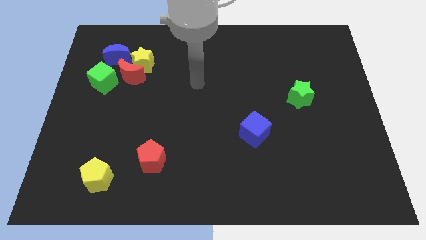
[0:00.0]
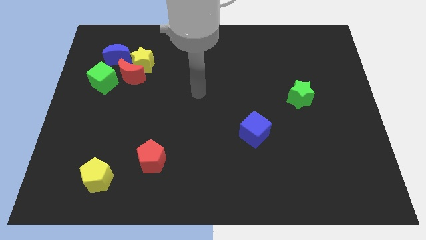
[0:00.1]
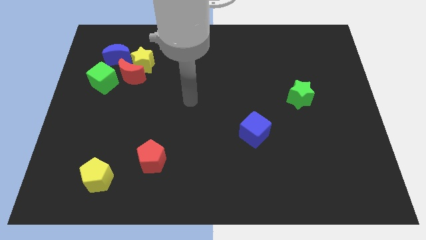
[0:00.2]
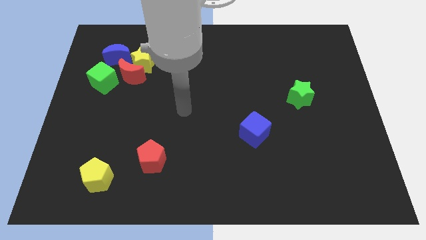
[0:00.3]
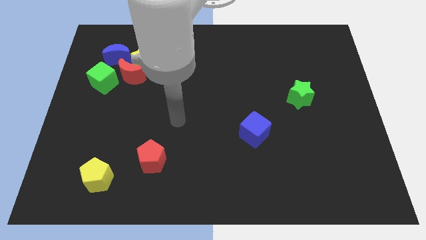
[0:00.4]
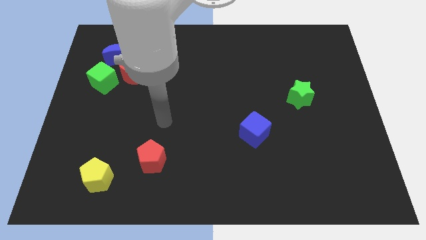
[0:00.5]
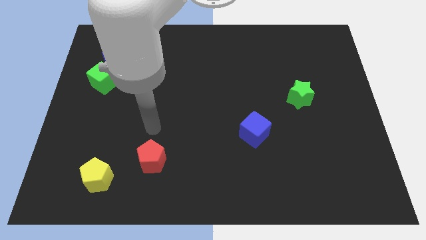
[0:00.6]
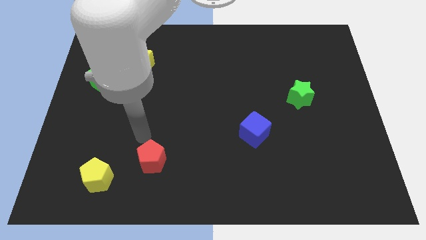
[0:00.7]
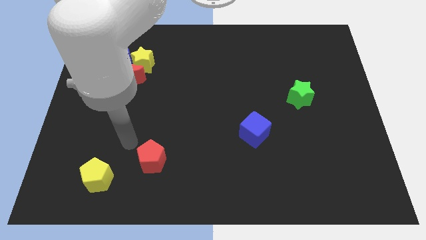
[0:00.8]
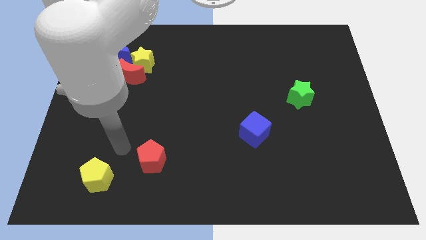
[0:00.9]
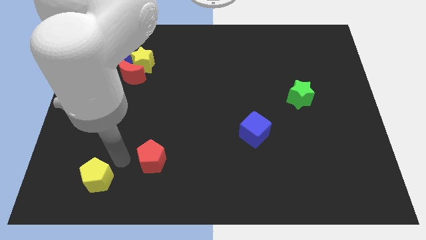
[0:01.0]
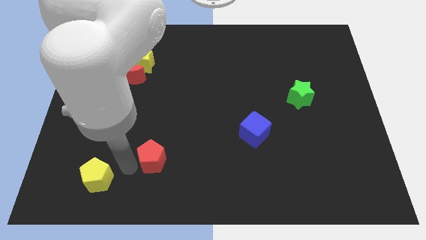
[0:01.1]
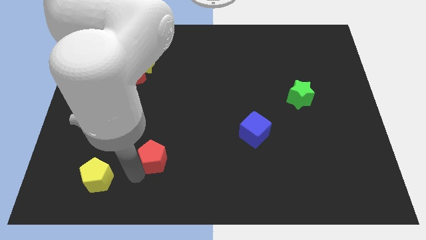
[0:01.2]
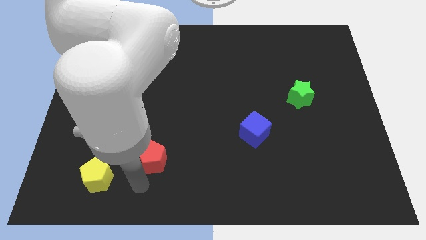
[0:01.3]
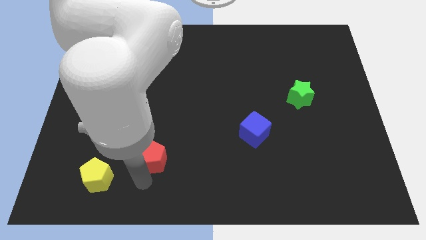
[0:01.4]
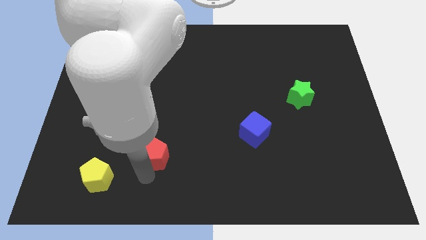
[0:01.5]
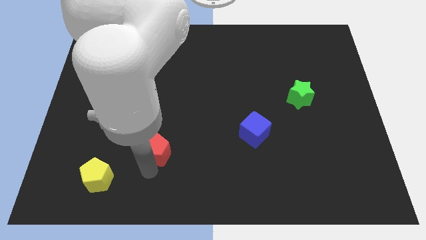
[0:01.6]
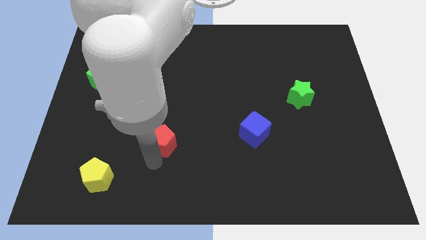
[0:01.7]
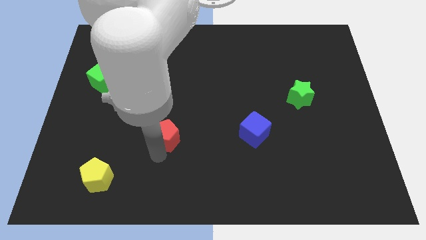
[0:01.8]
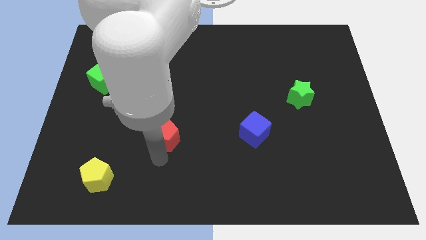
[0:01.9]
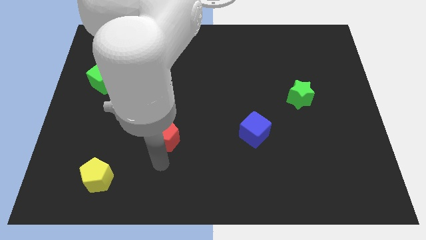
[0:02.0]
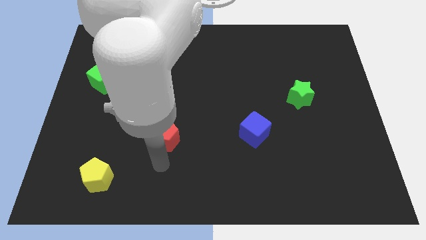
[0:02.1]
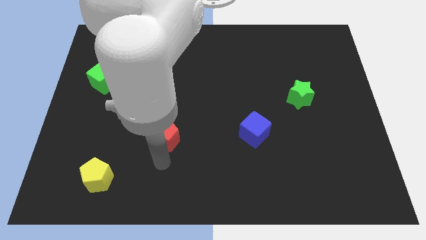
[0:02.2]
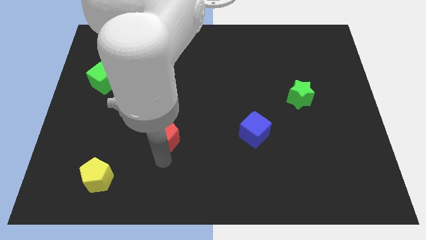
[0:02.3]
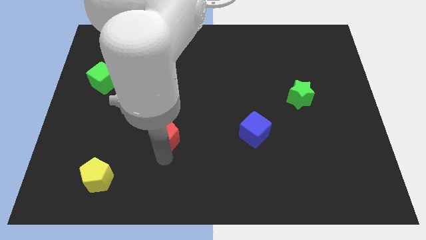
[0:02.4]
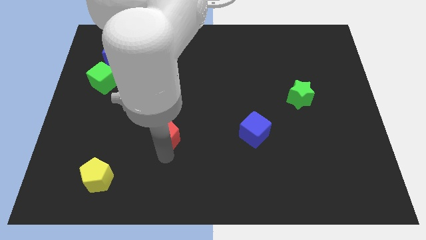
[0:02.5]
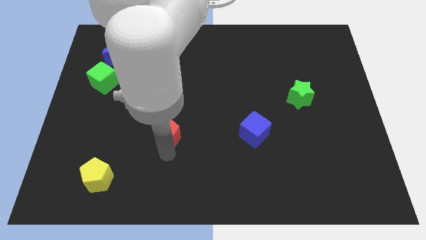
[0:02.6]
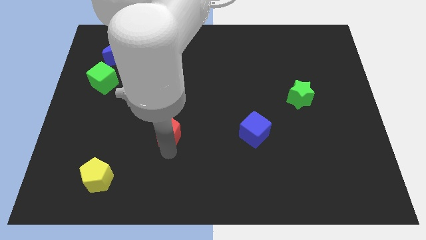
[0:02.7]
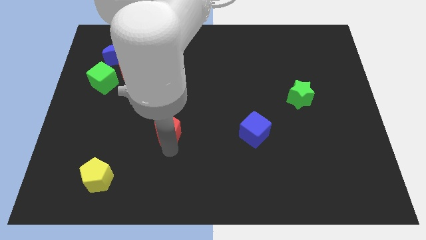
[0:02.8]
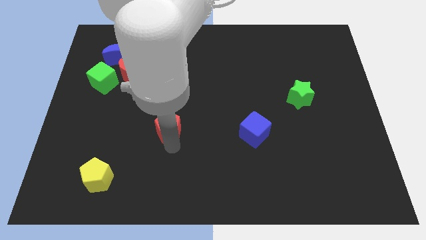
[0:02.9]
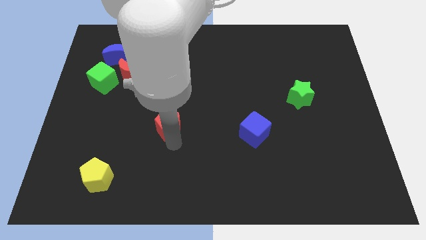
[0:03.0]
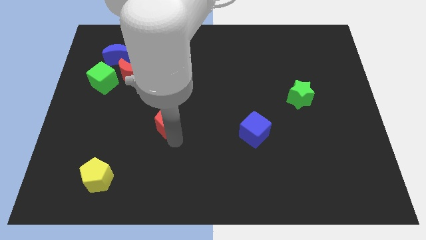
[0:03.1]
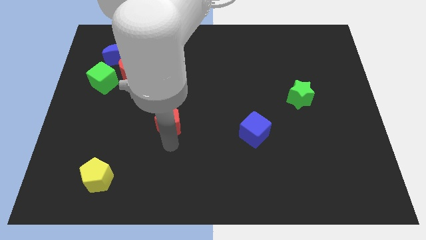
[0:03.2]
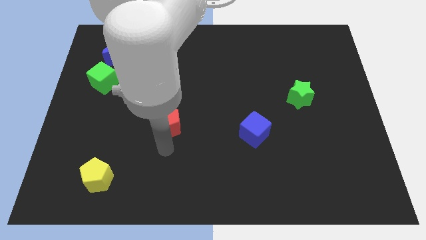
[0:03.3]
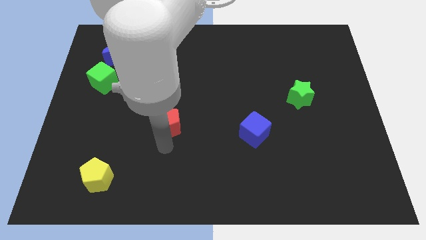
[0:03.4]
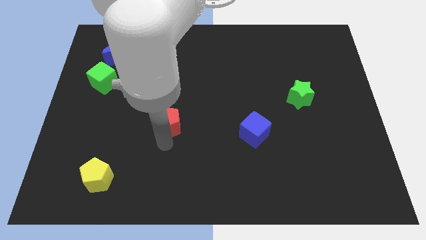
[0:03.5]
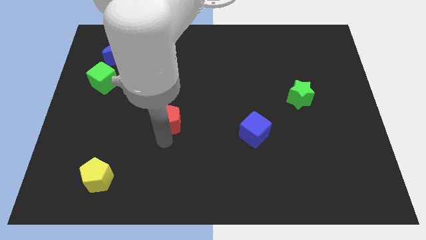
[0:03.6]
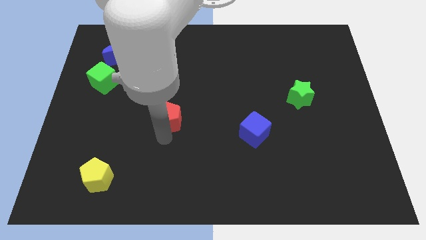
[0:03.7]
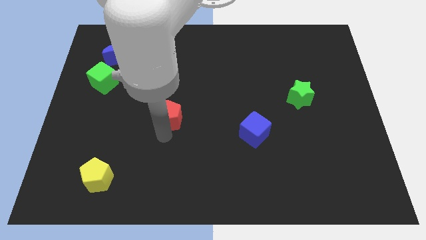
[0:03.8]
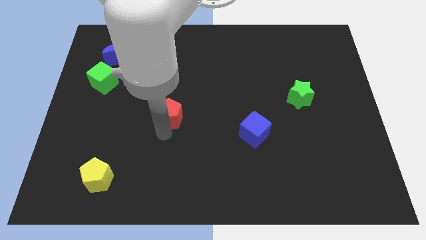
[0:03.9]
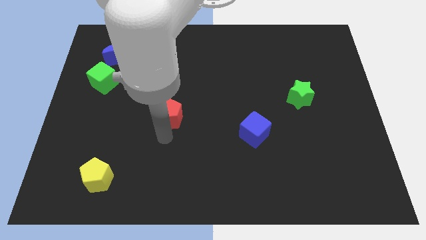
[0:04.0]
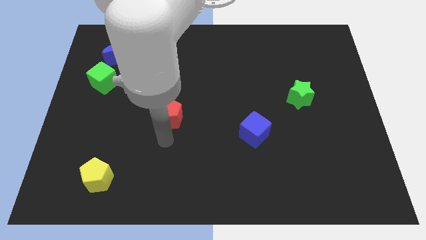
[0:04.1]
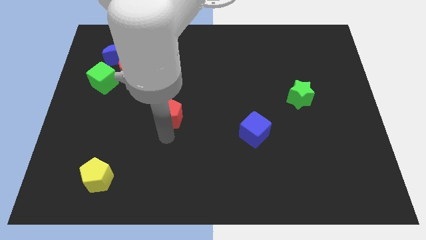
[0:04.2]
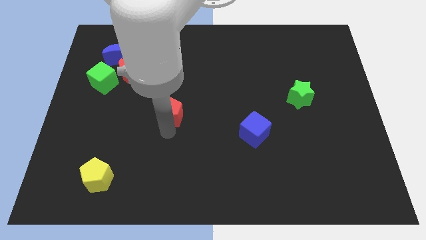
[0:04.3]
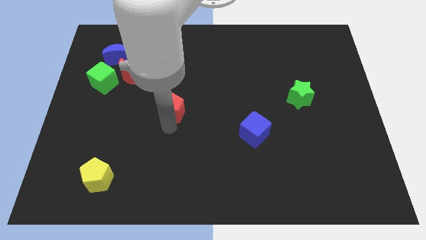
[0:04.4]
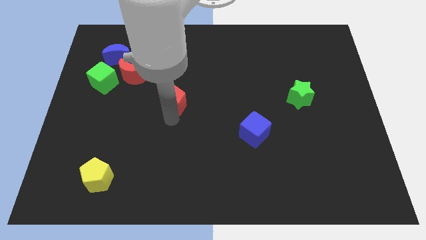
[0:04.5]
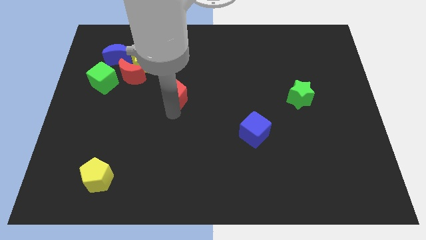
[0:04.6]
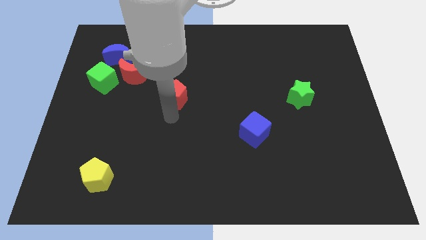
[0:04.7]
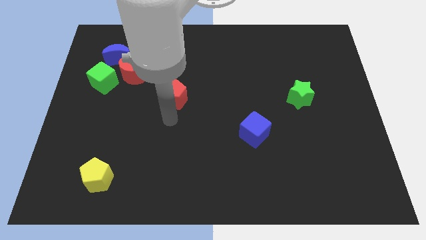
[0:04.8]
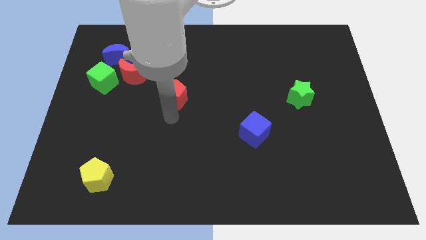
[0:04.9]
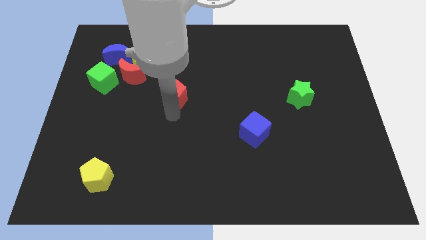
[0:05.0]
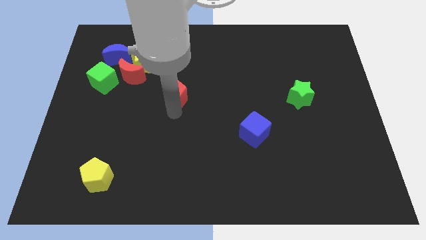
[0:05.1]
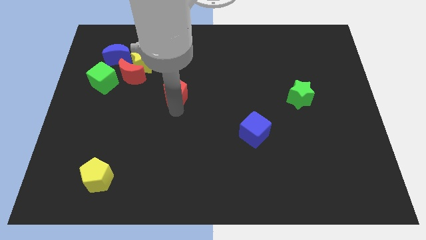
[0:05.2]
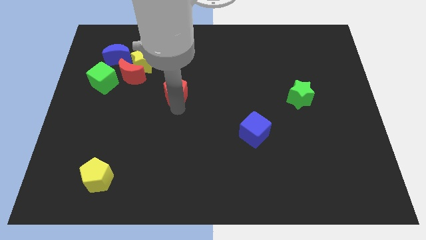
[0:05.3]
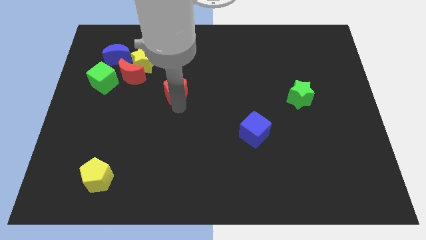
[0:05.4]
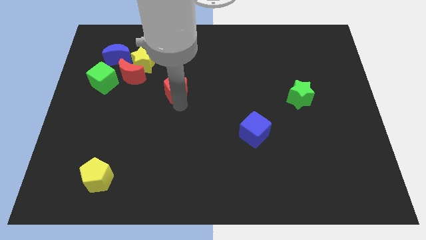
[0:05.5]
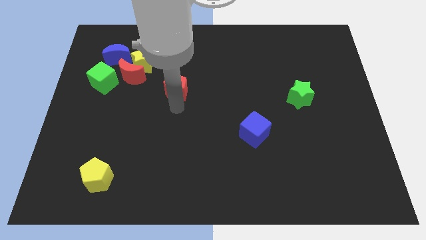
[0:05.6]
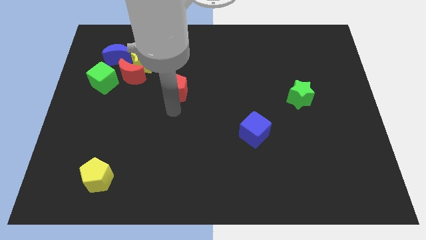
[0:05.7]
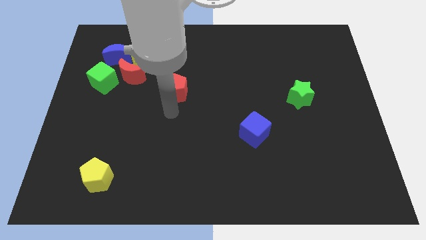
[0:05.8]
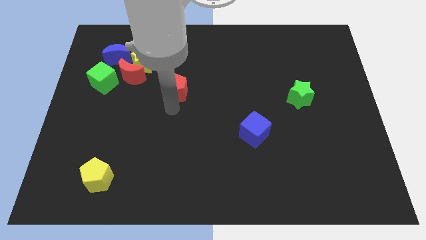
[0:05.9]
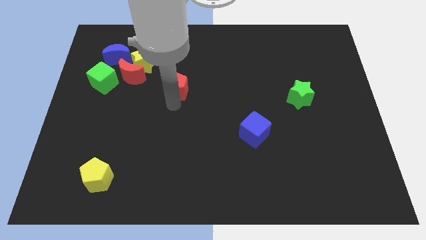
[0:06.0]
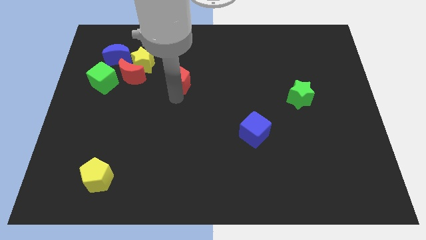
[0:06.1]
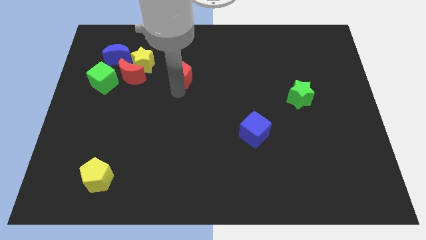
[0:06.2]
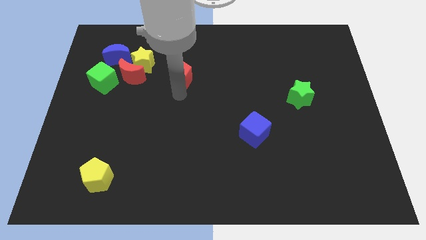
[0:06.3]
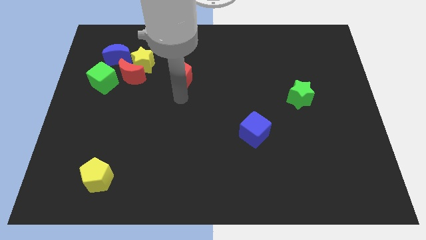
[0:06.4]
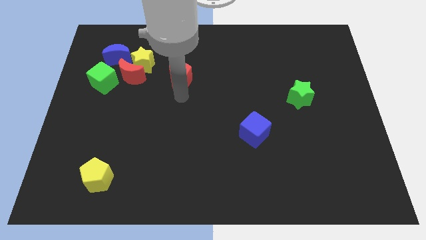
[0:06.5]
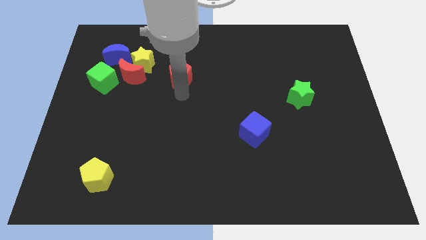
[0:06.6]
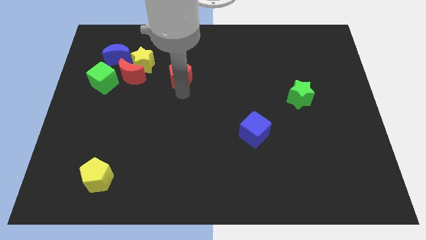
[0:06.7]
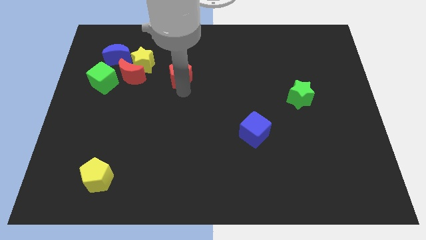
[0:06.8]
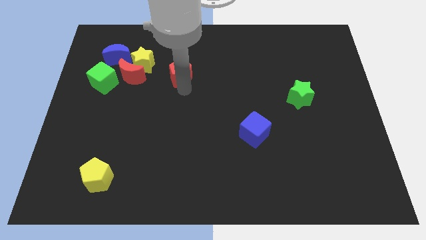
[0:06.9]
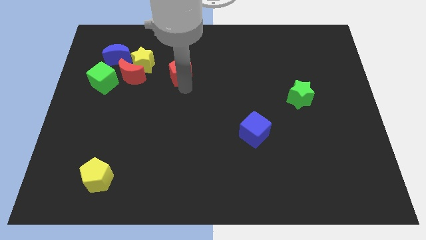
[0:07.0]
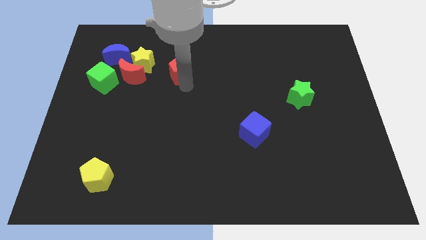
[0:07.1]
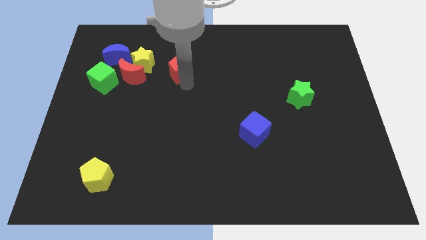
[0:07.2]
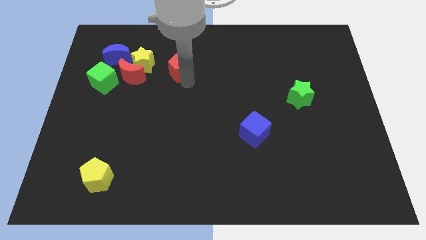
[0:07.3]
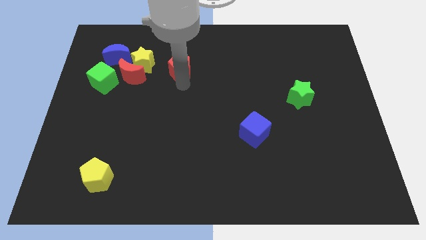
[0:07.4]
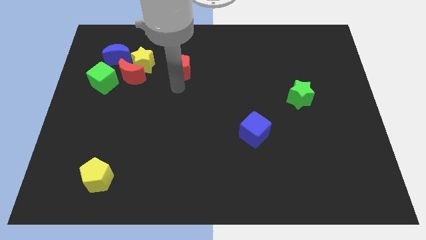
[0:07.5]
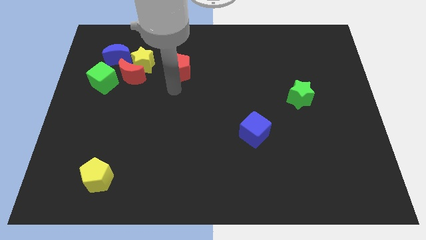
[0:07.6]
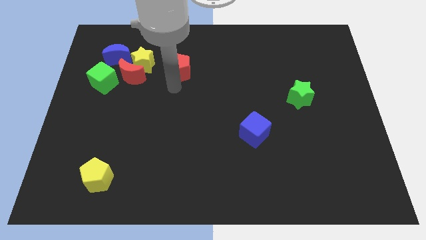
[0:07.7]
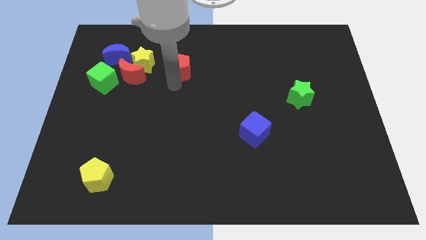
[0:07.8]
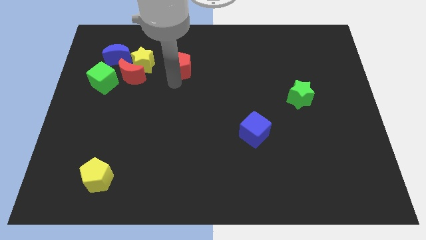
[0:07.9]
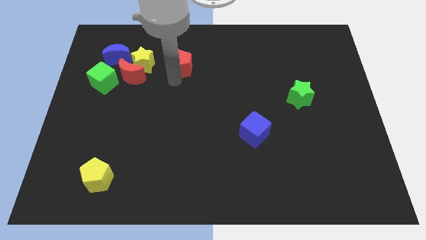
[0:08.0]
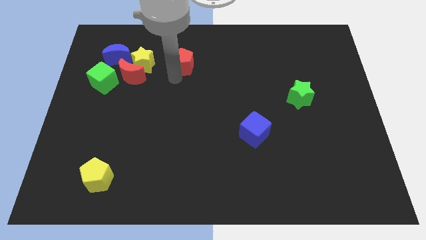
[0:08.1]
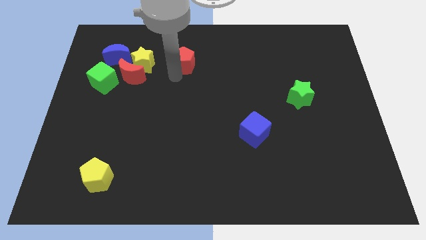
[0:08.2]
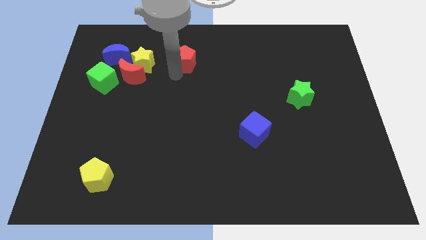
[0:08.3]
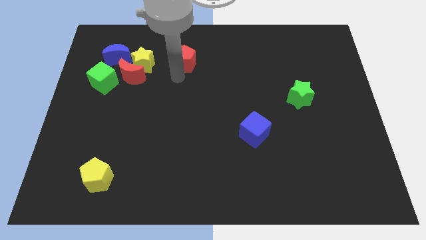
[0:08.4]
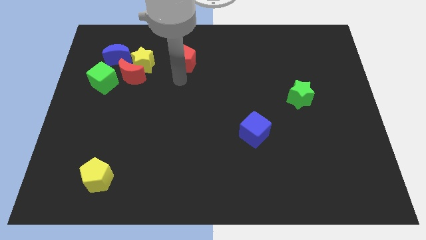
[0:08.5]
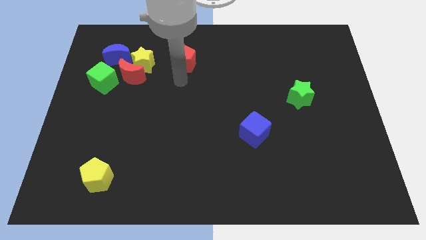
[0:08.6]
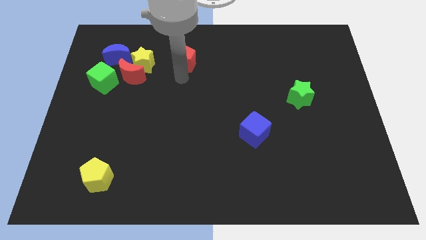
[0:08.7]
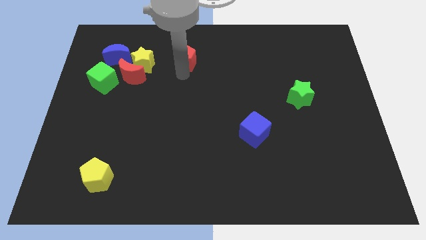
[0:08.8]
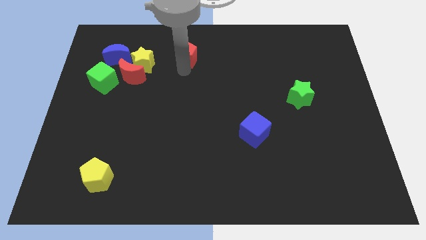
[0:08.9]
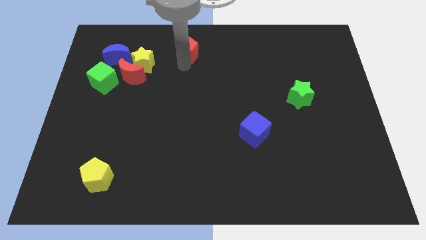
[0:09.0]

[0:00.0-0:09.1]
push the red pentagon to the towards your base
